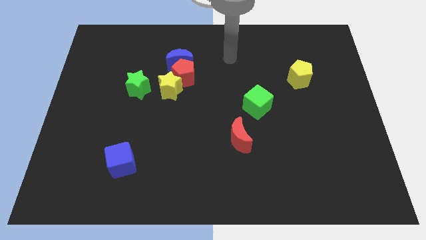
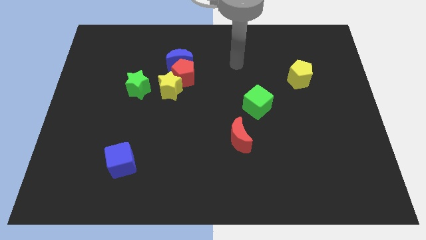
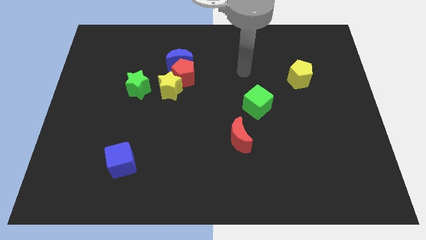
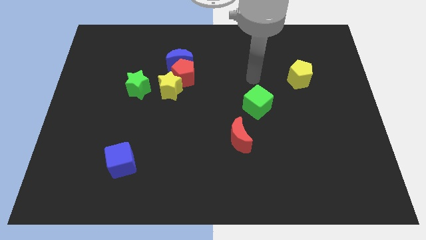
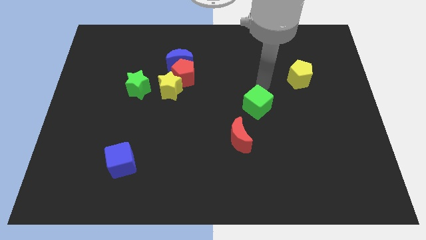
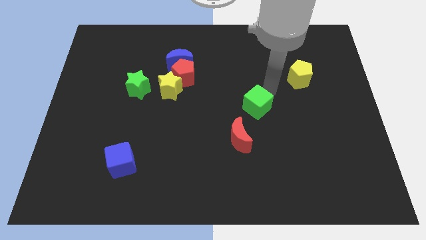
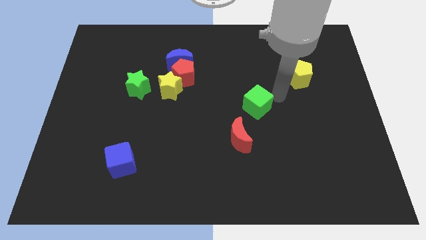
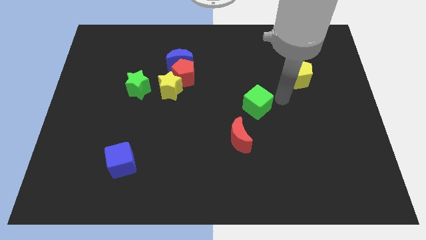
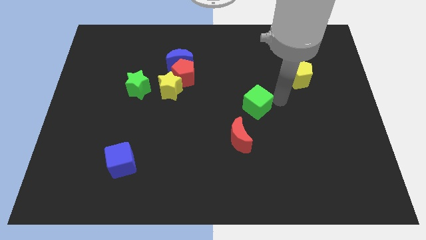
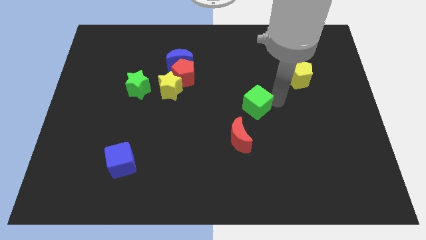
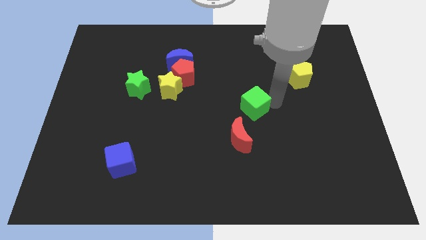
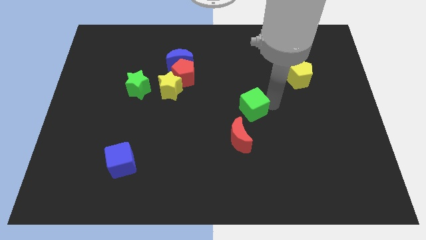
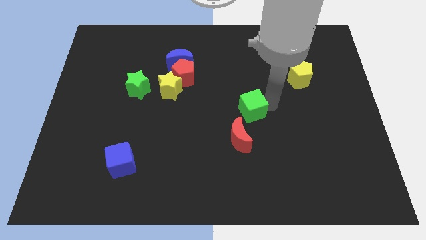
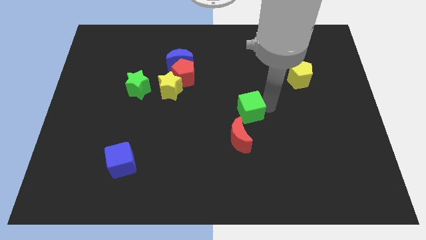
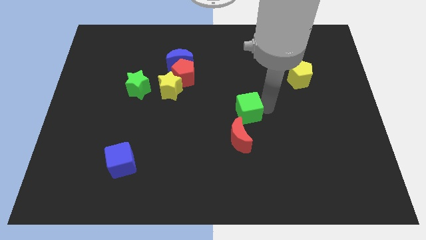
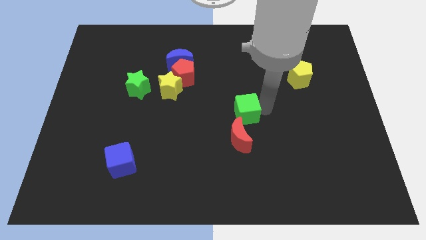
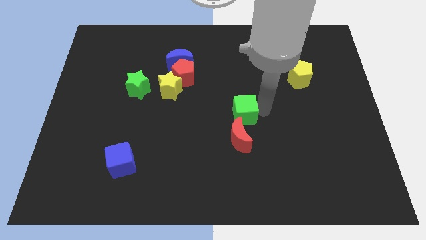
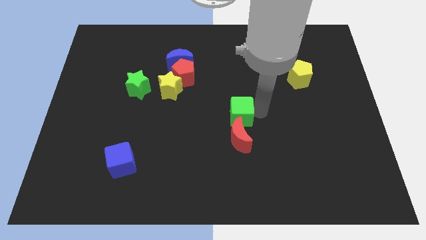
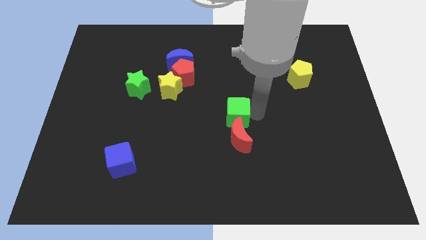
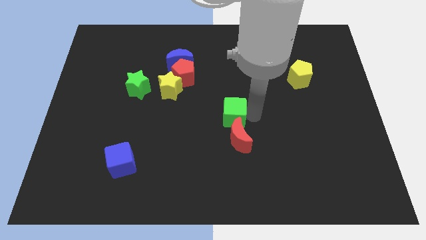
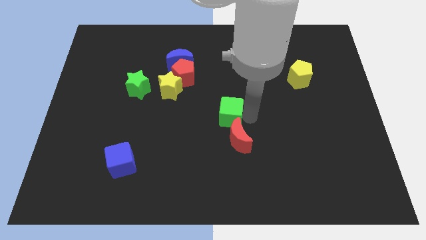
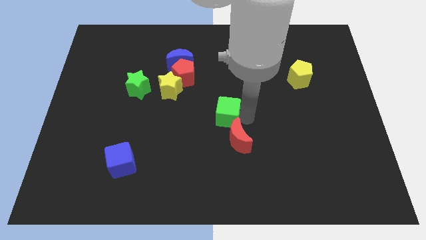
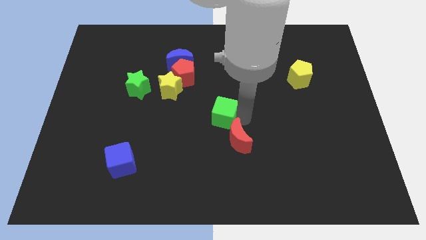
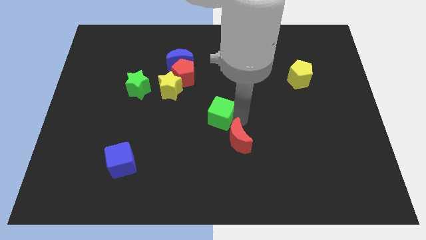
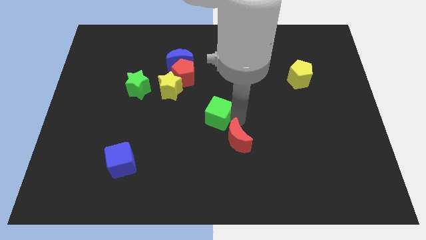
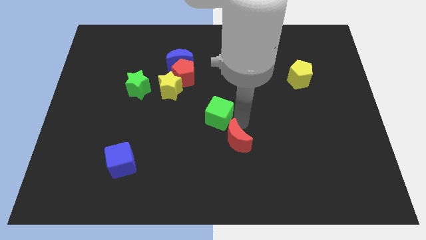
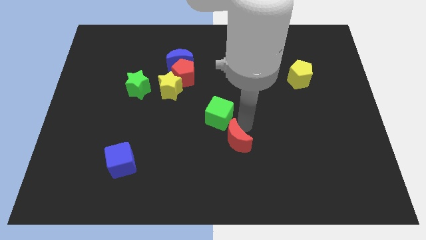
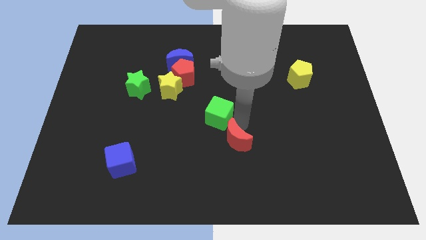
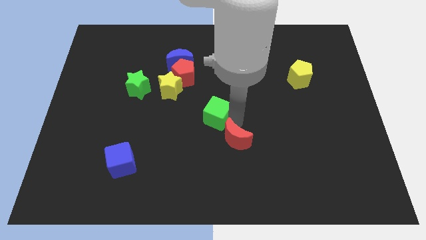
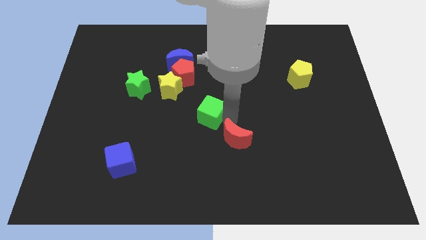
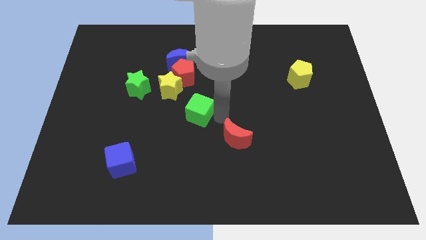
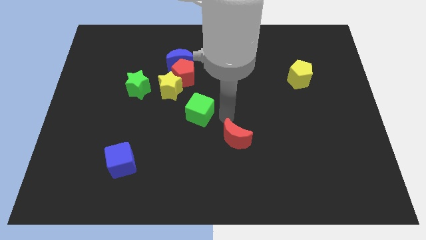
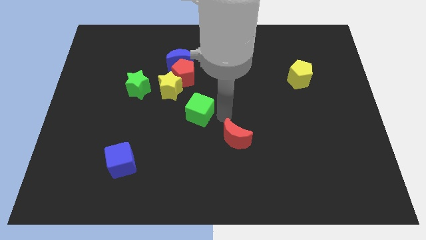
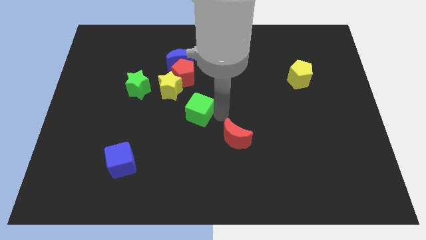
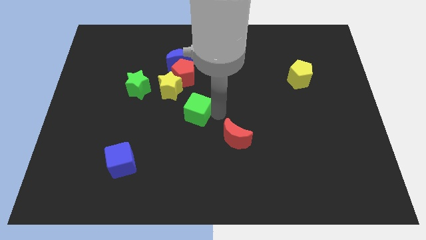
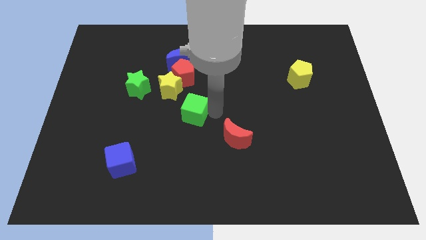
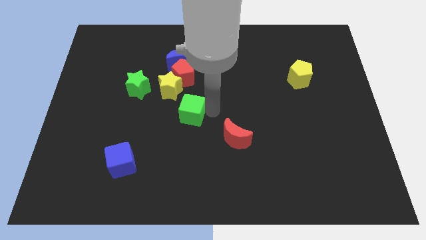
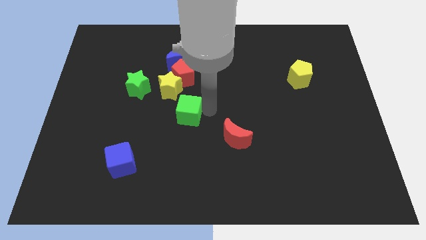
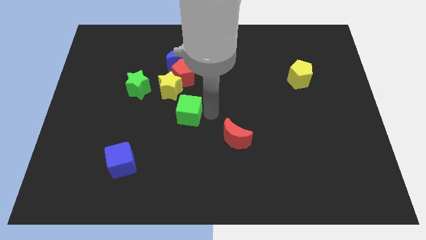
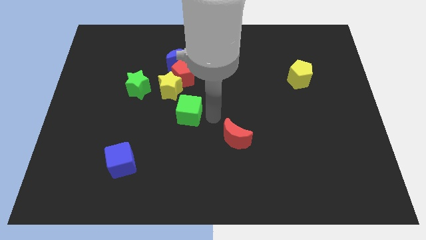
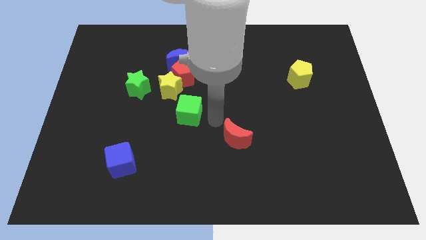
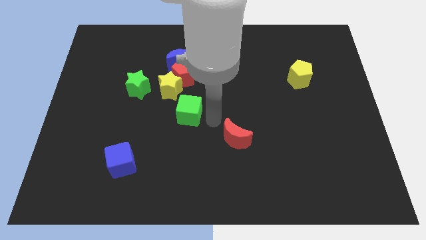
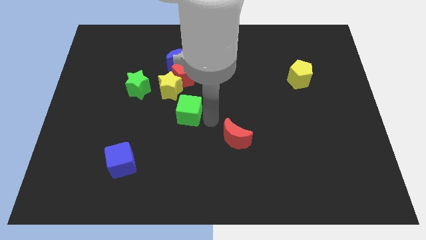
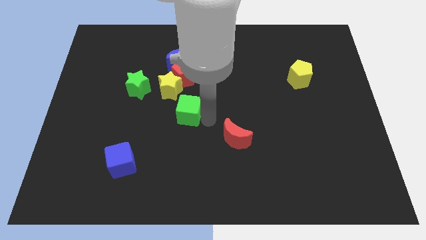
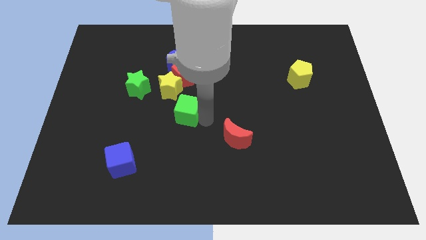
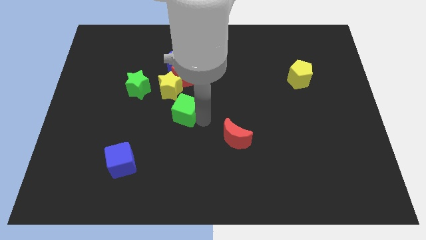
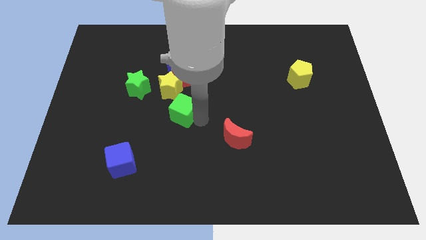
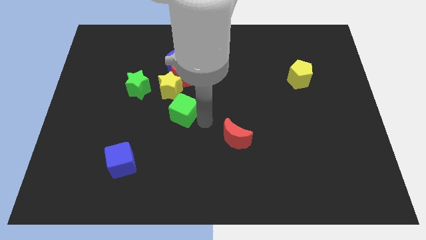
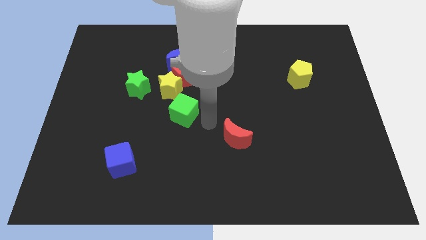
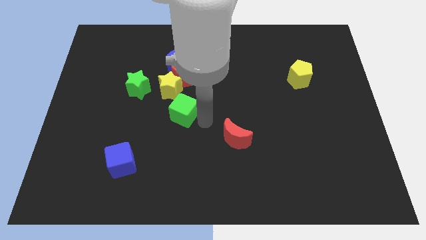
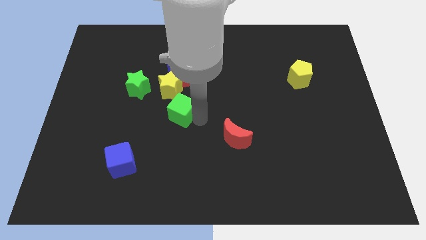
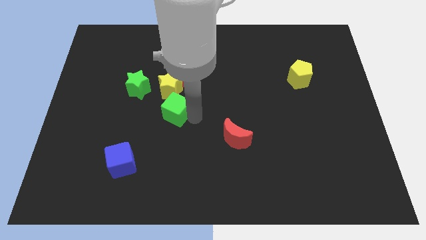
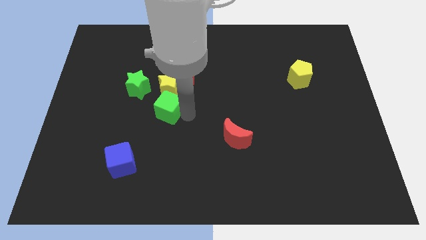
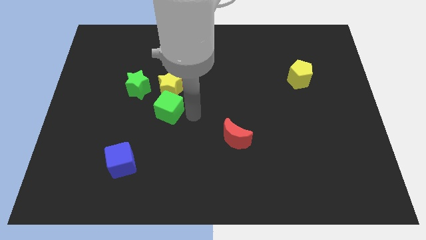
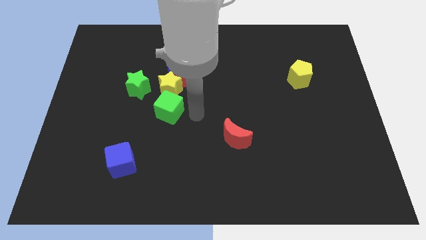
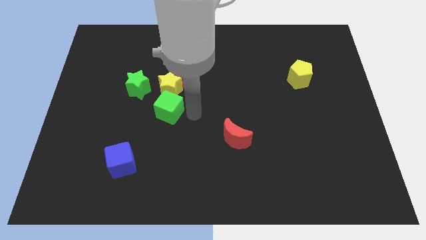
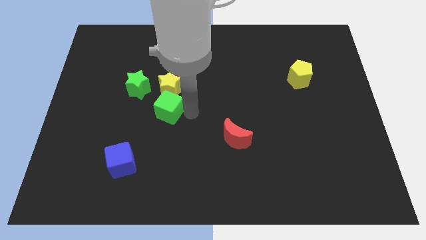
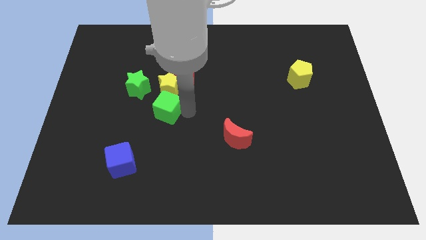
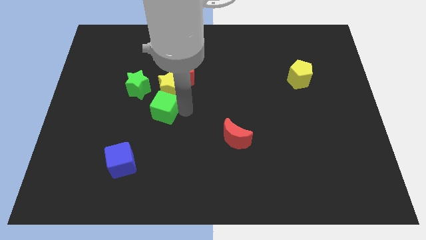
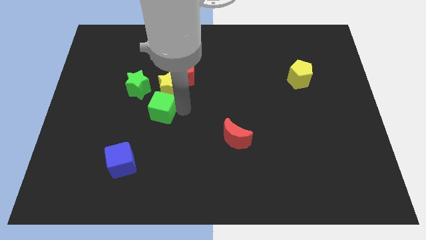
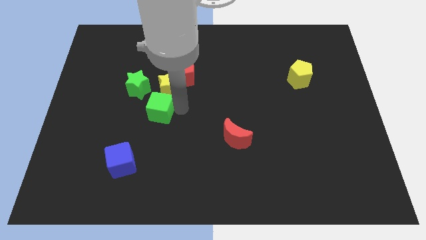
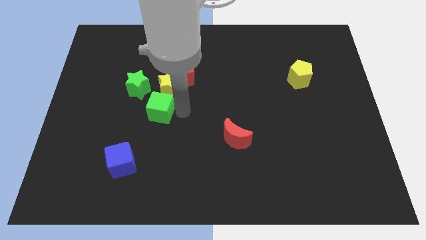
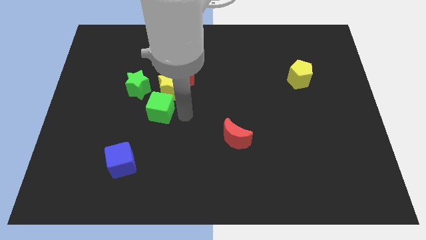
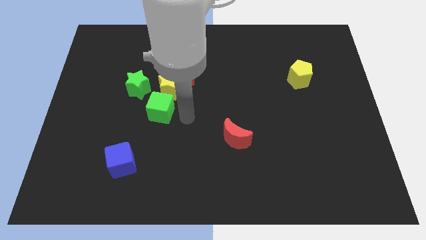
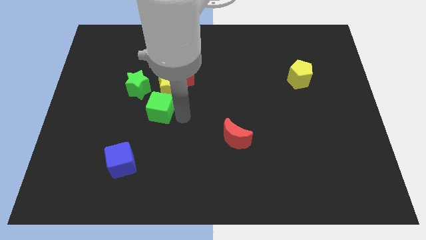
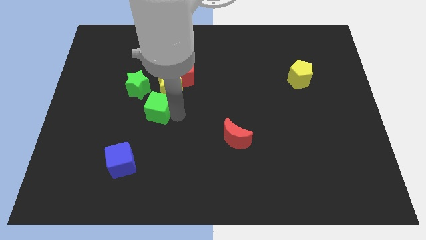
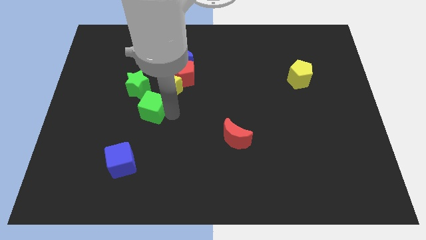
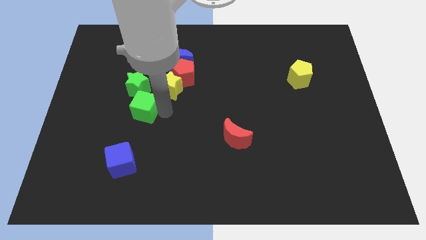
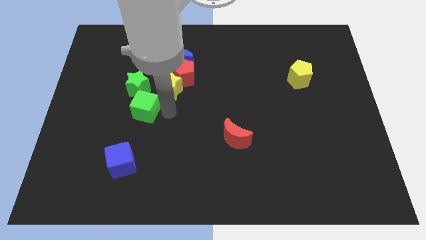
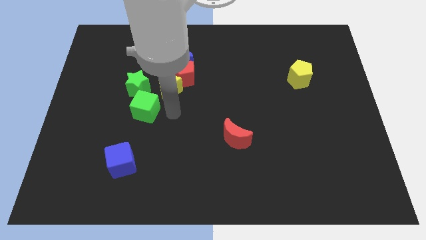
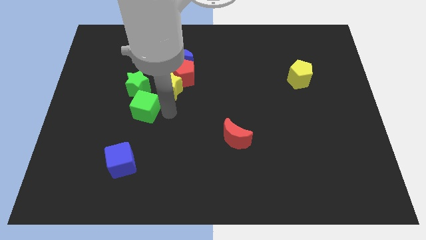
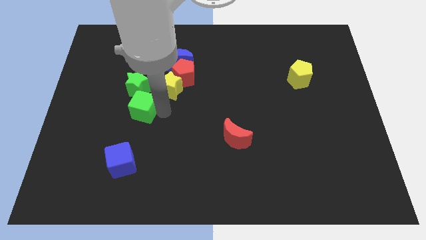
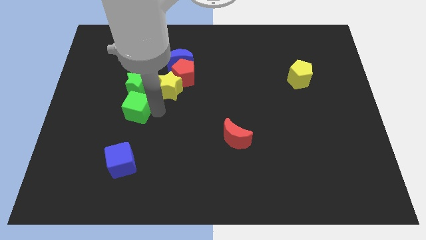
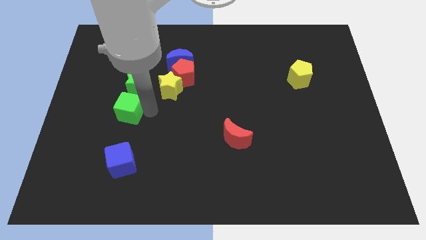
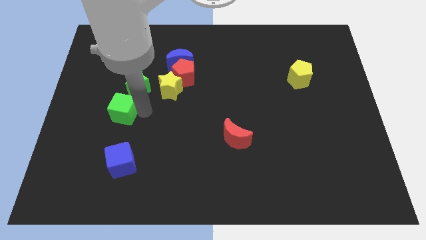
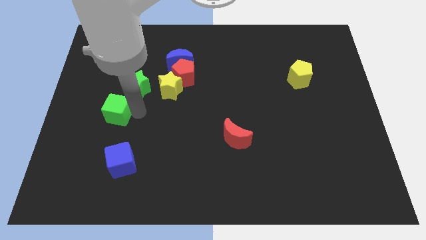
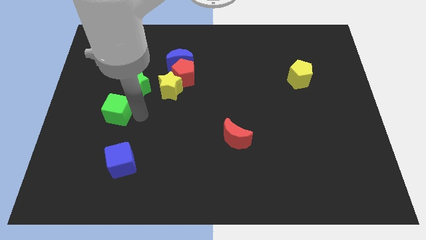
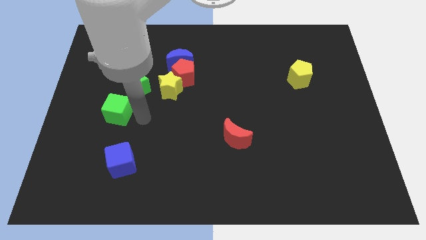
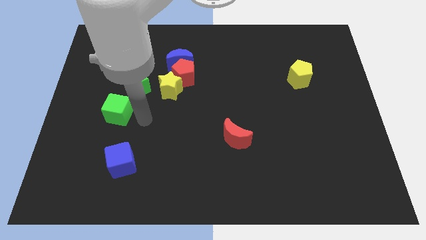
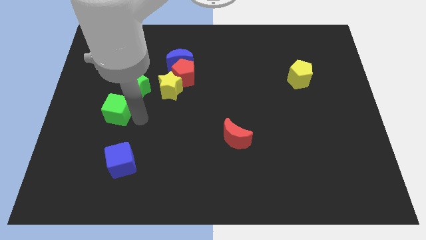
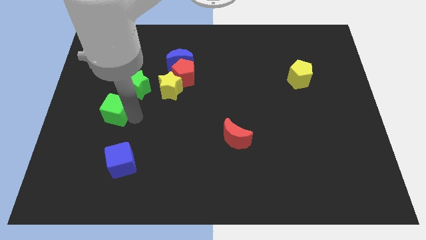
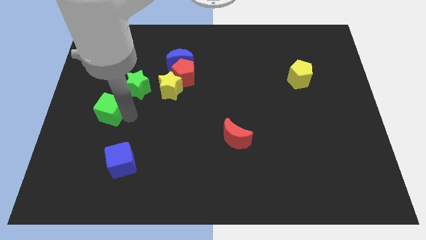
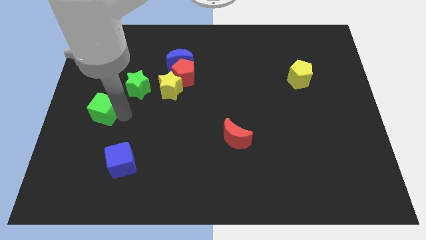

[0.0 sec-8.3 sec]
slide the green cube to the center left
